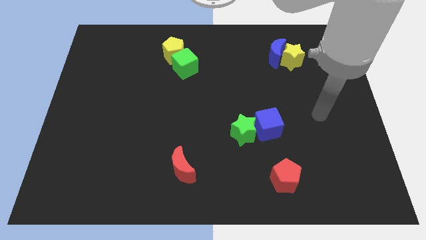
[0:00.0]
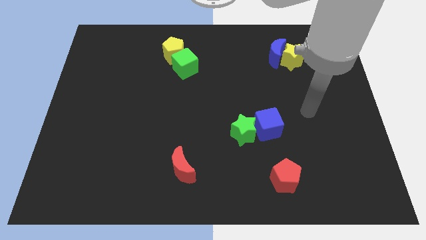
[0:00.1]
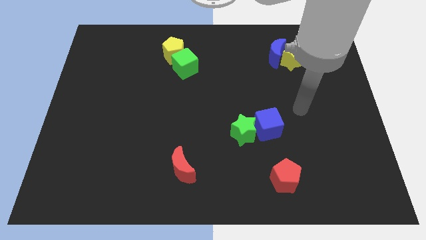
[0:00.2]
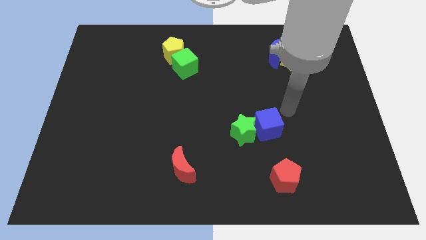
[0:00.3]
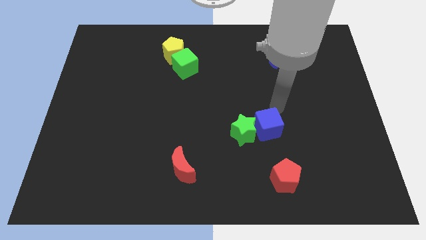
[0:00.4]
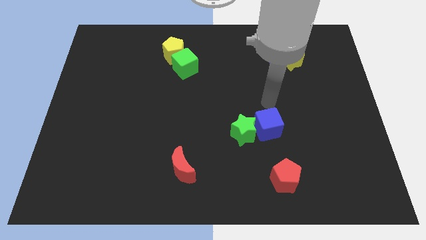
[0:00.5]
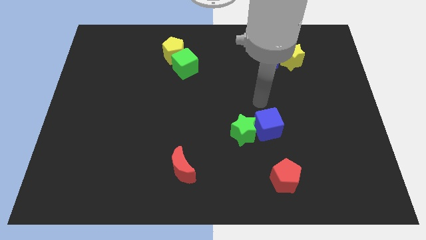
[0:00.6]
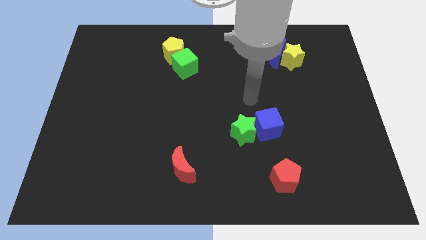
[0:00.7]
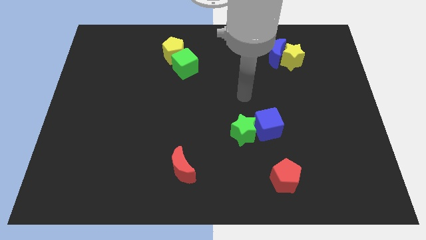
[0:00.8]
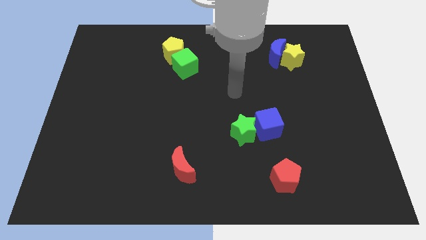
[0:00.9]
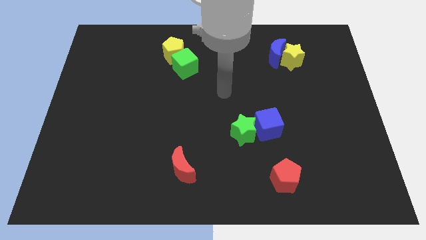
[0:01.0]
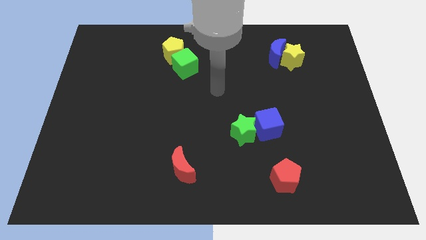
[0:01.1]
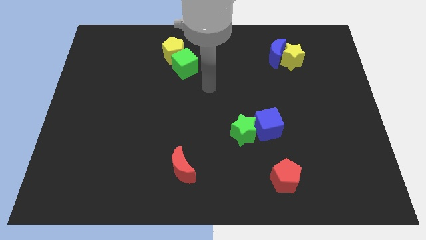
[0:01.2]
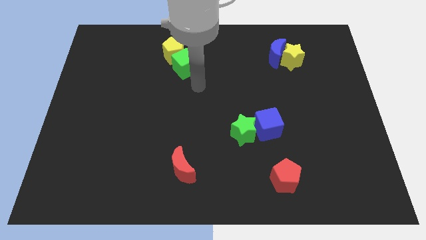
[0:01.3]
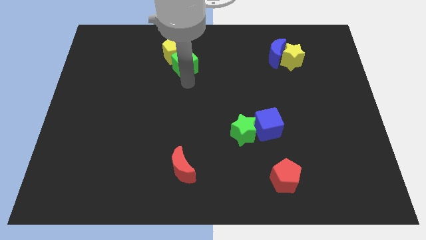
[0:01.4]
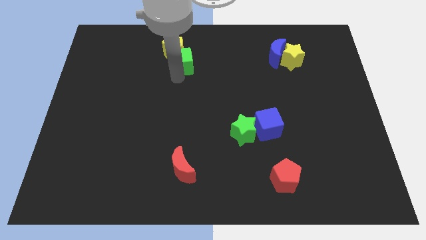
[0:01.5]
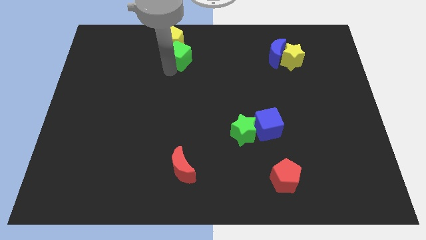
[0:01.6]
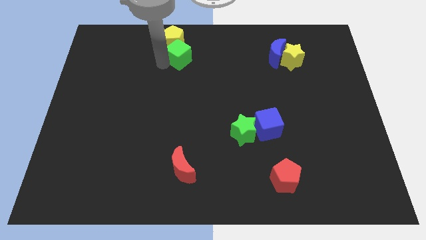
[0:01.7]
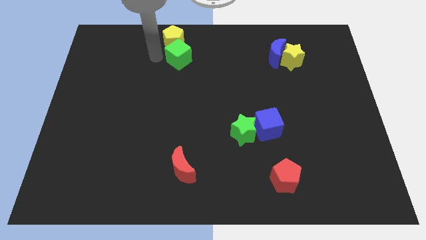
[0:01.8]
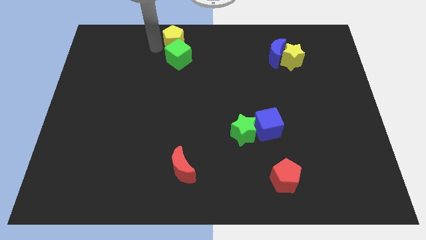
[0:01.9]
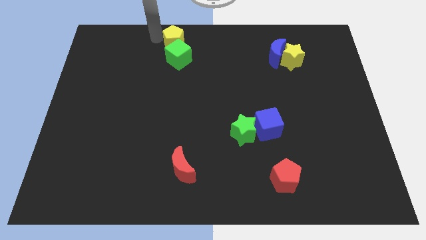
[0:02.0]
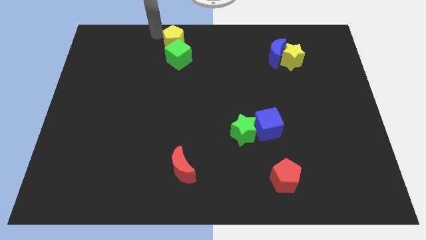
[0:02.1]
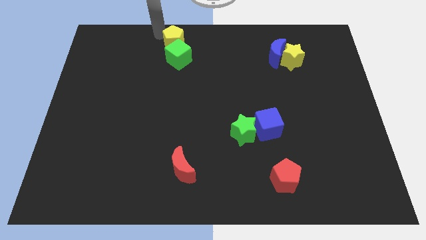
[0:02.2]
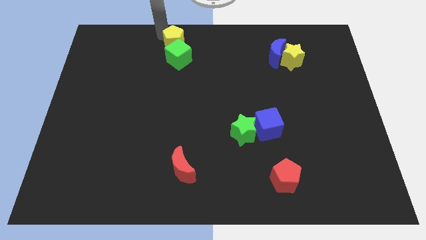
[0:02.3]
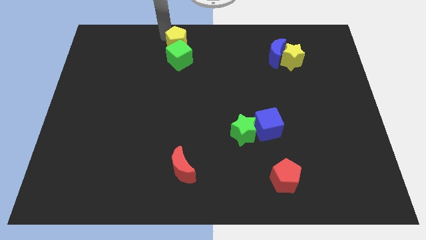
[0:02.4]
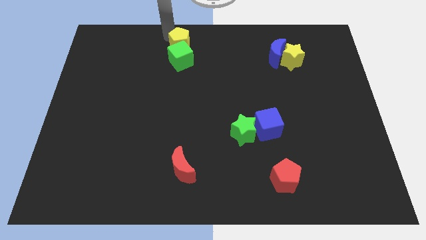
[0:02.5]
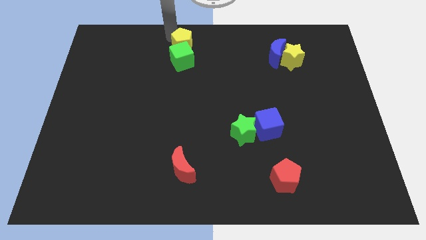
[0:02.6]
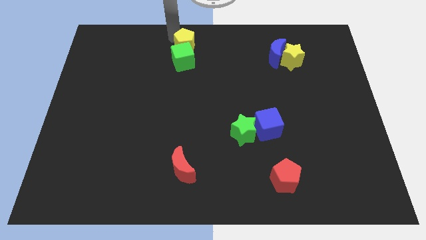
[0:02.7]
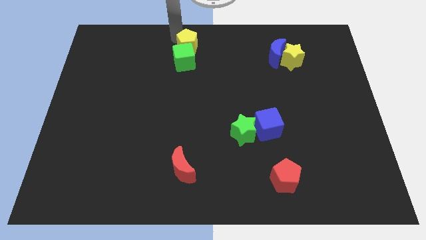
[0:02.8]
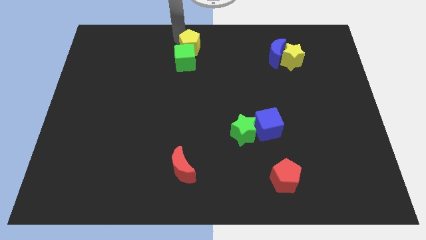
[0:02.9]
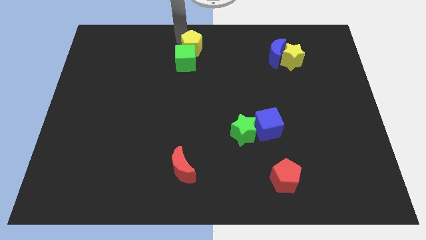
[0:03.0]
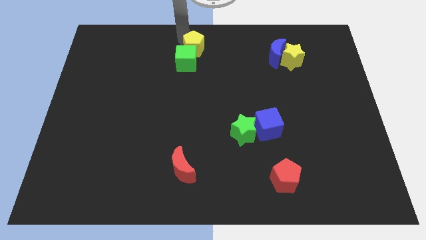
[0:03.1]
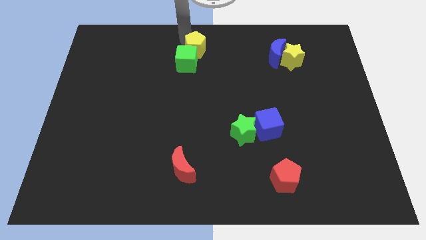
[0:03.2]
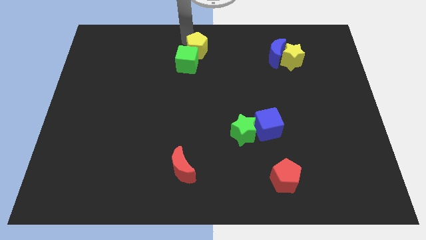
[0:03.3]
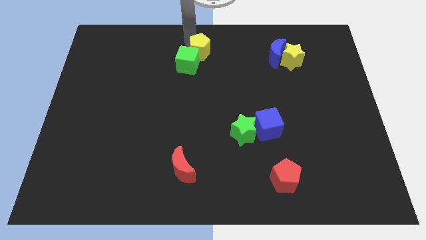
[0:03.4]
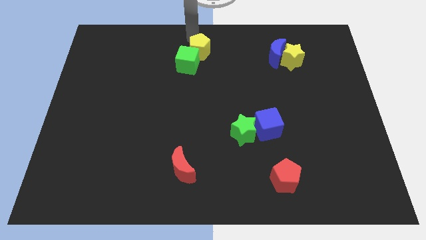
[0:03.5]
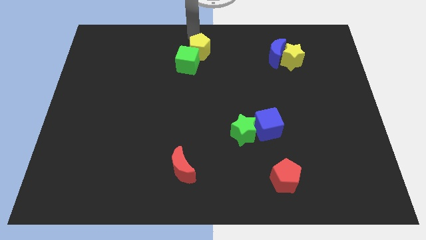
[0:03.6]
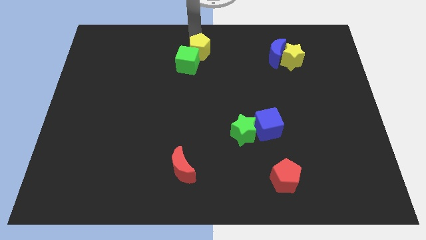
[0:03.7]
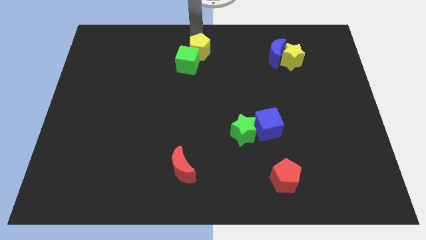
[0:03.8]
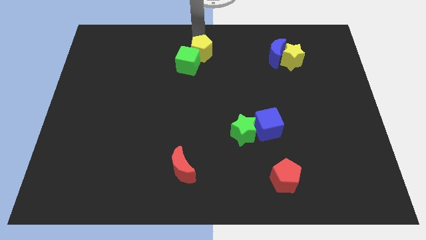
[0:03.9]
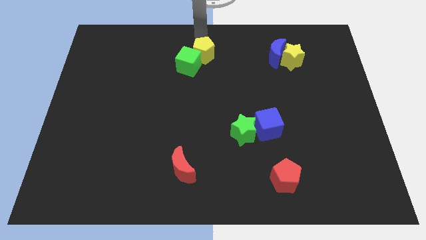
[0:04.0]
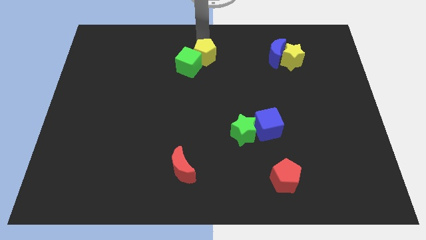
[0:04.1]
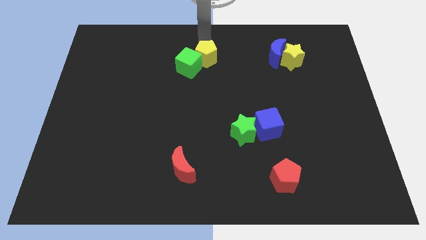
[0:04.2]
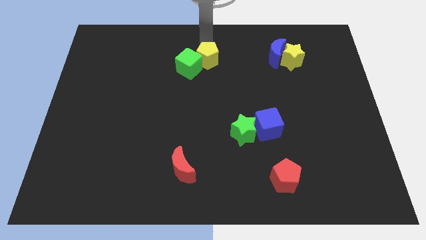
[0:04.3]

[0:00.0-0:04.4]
slide the yellow pentagon slightly down and to the right

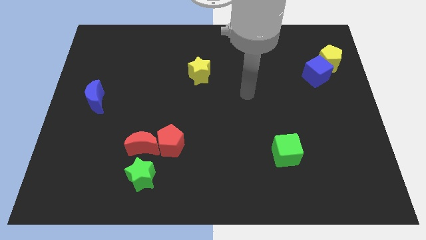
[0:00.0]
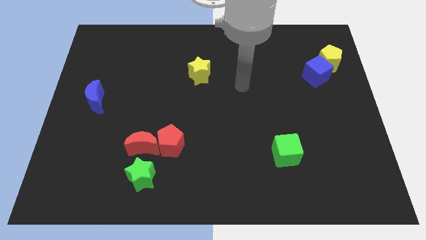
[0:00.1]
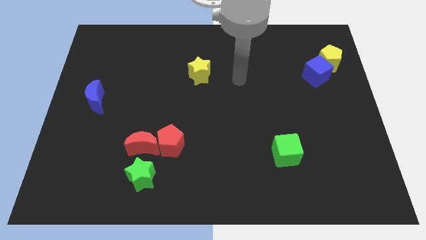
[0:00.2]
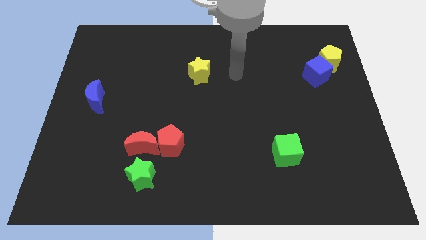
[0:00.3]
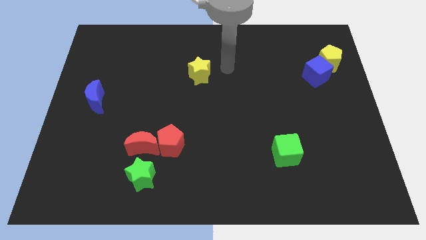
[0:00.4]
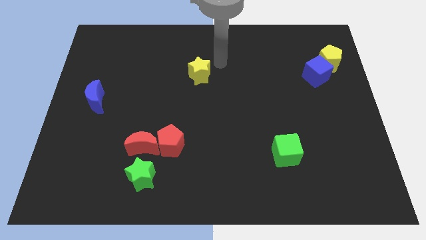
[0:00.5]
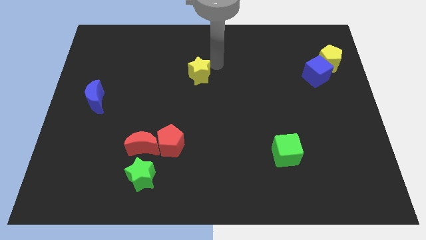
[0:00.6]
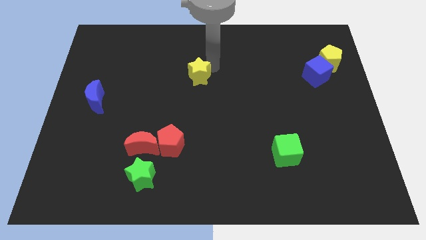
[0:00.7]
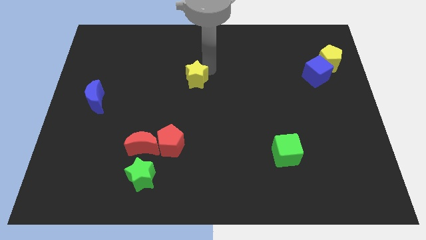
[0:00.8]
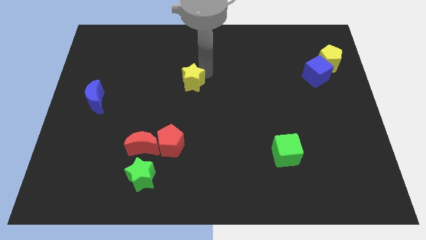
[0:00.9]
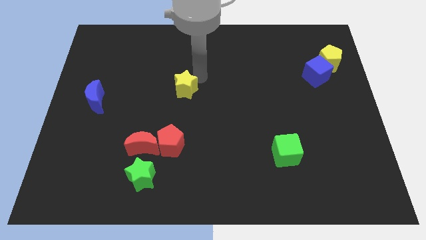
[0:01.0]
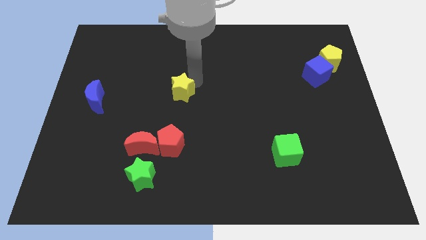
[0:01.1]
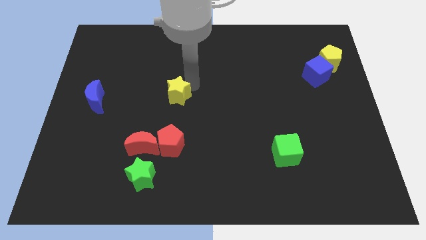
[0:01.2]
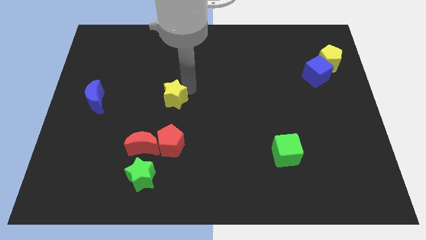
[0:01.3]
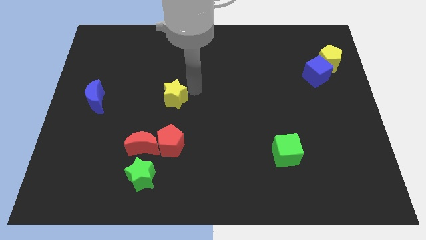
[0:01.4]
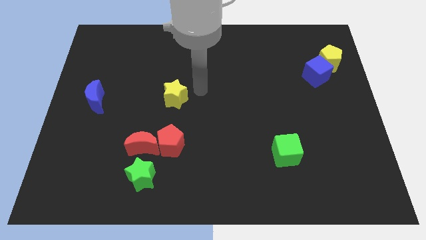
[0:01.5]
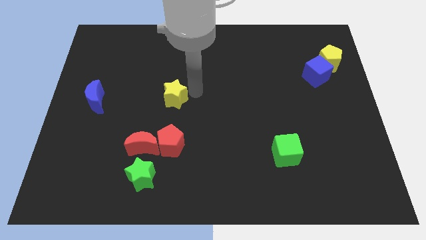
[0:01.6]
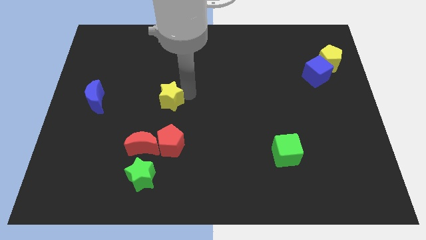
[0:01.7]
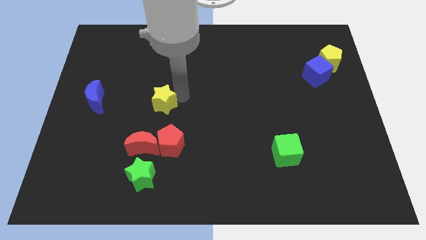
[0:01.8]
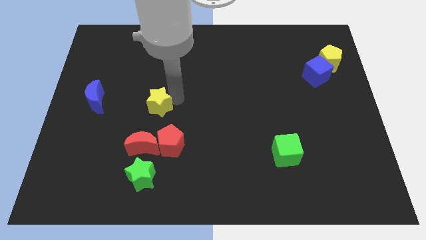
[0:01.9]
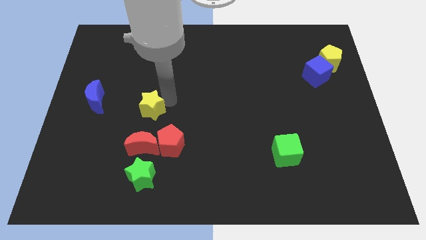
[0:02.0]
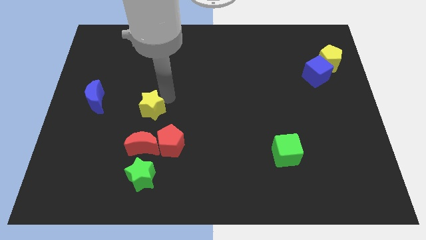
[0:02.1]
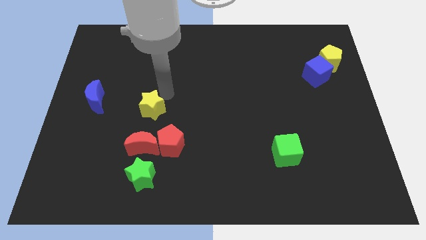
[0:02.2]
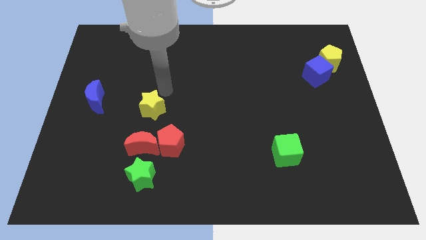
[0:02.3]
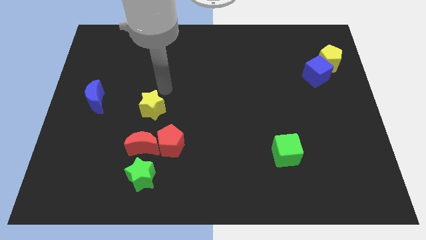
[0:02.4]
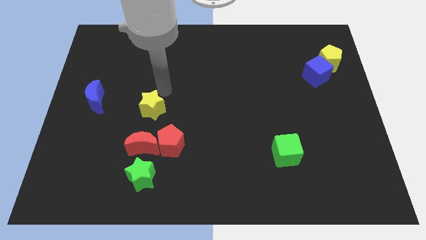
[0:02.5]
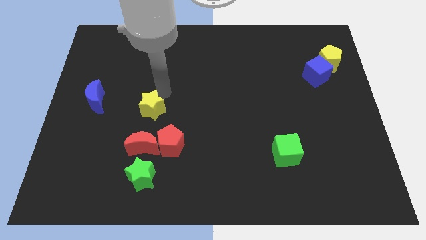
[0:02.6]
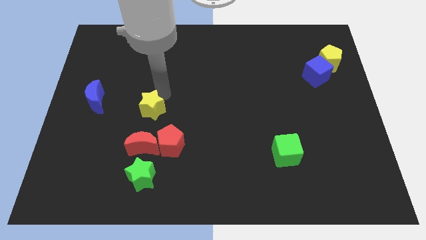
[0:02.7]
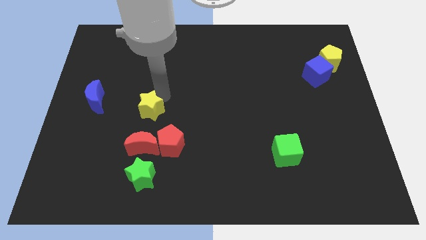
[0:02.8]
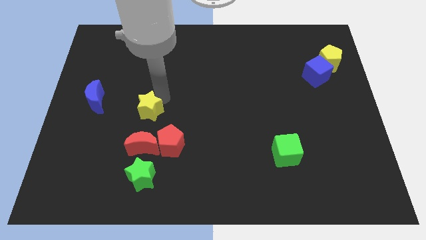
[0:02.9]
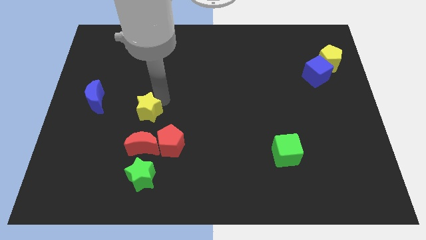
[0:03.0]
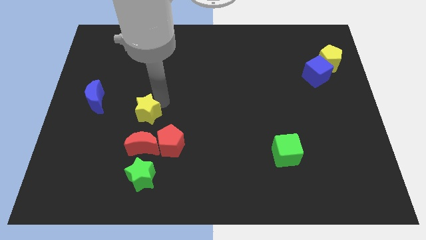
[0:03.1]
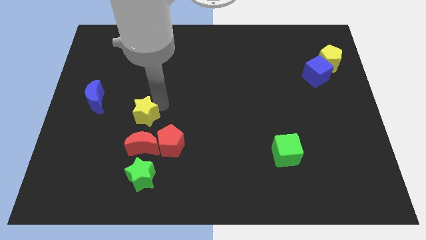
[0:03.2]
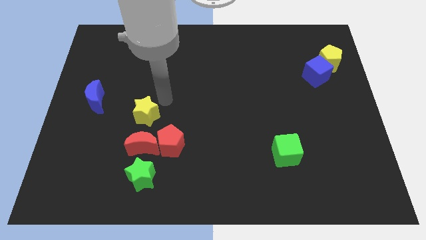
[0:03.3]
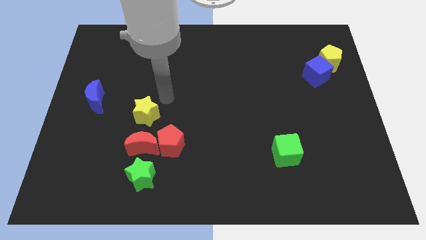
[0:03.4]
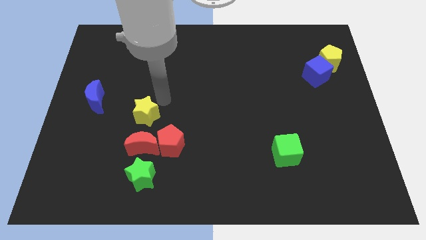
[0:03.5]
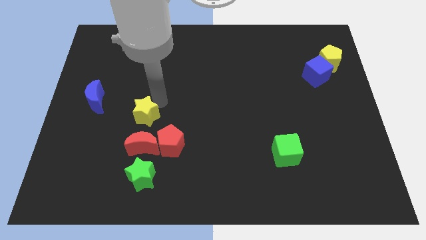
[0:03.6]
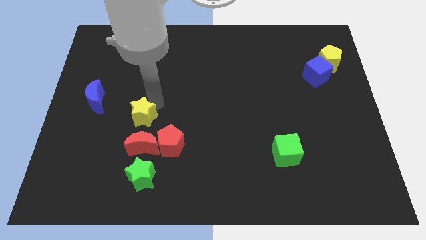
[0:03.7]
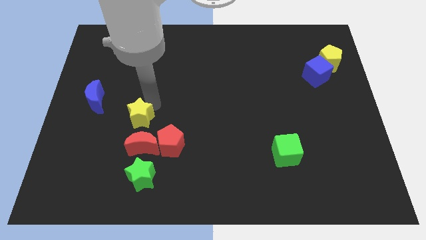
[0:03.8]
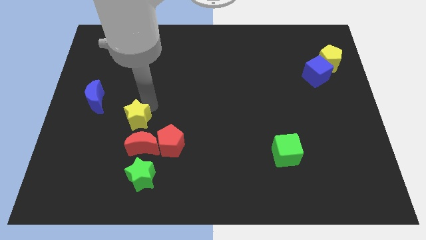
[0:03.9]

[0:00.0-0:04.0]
move the yellow star down and then to the left
